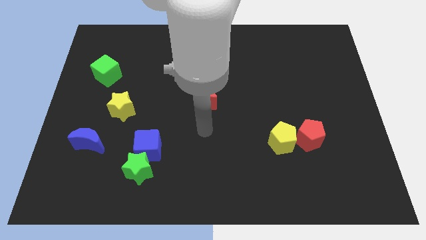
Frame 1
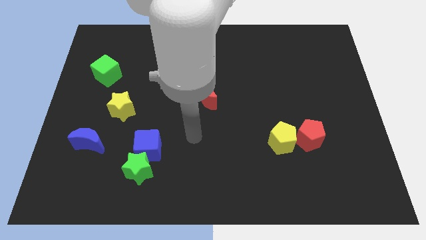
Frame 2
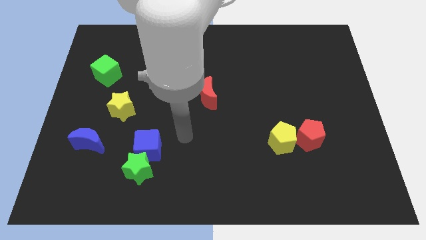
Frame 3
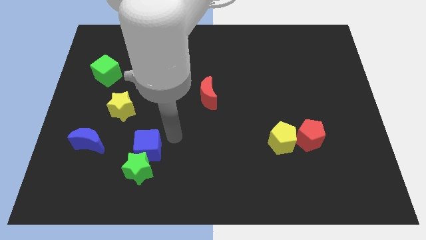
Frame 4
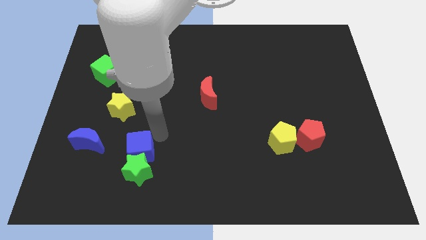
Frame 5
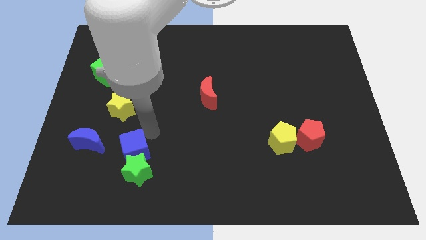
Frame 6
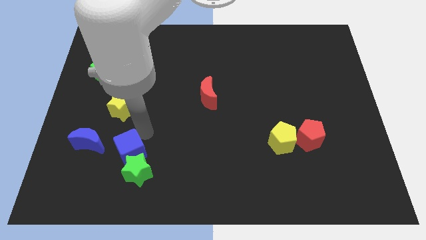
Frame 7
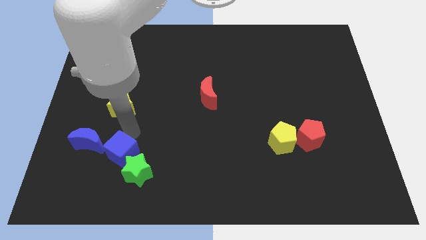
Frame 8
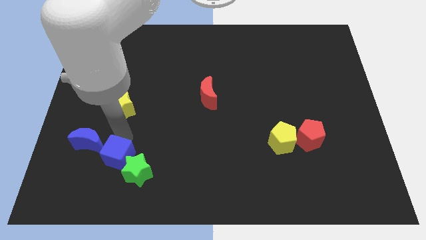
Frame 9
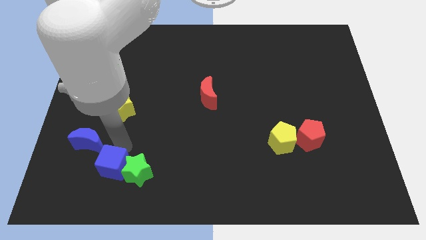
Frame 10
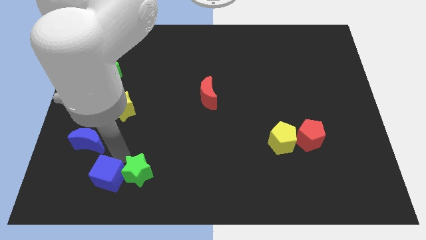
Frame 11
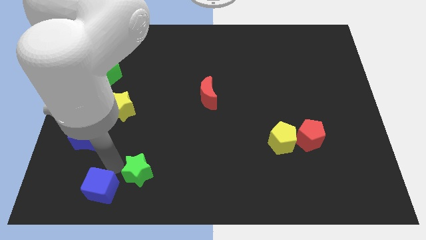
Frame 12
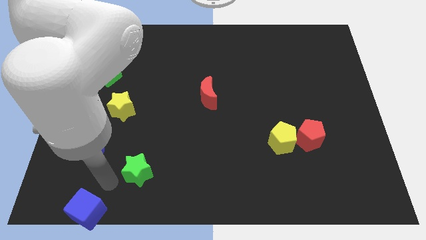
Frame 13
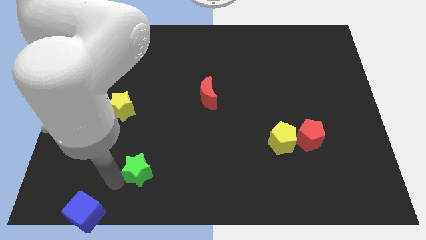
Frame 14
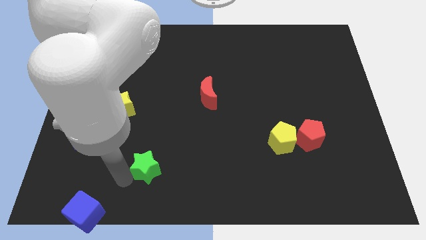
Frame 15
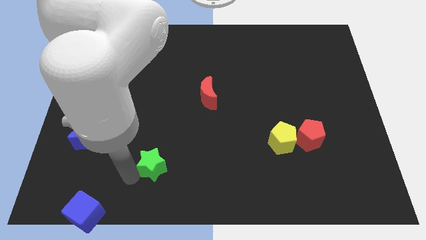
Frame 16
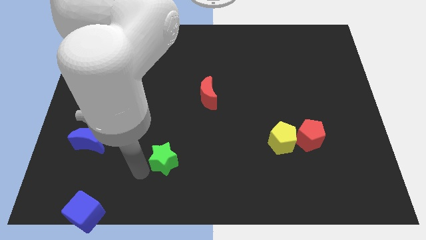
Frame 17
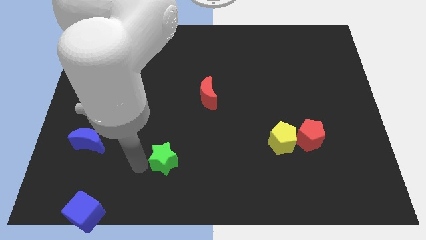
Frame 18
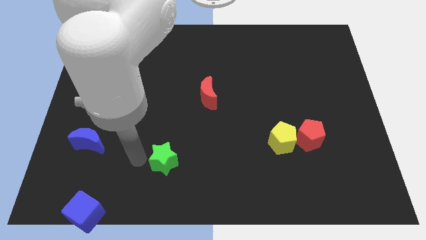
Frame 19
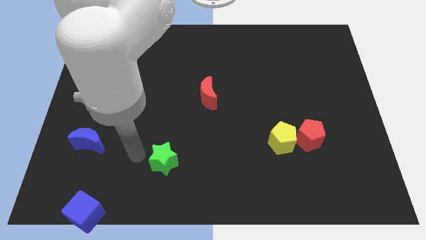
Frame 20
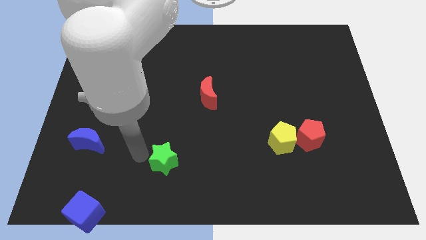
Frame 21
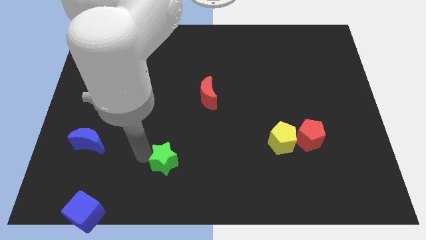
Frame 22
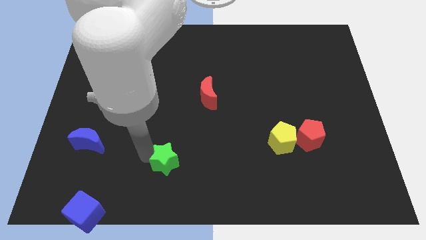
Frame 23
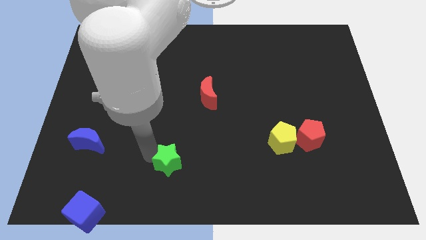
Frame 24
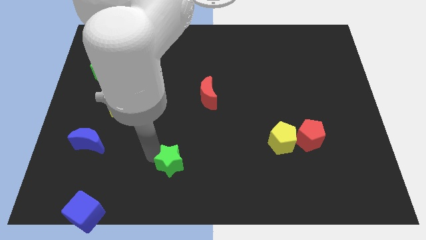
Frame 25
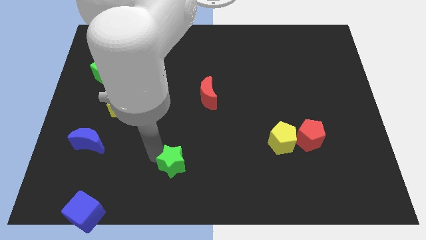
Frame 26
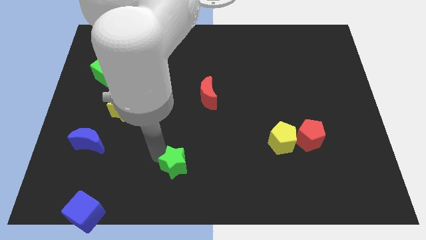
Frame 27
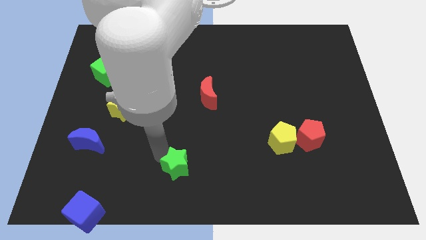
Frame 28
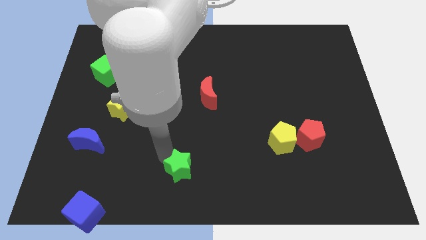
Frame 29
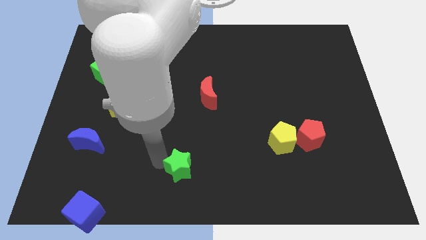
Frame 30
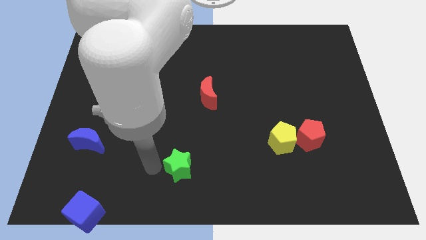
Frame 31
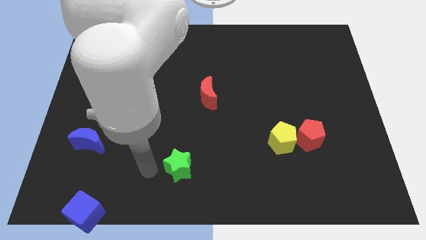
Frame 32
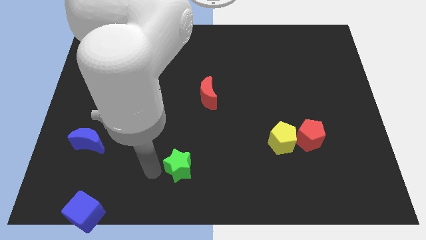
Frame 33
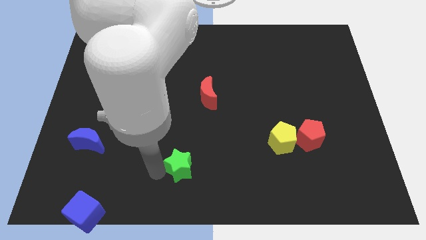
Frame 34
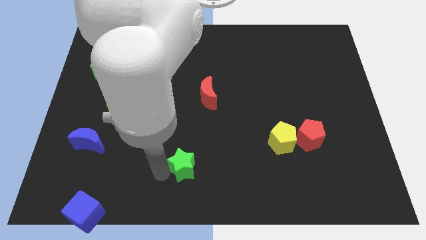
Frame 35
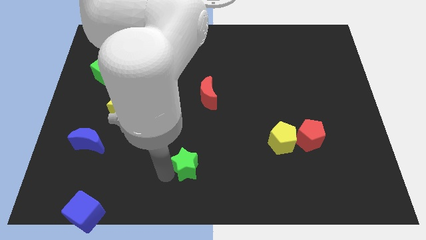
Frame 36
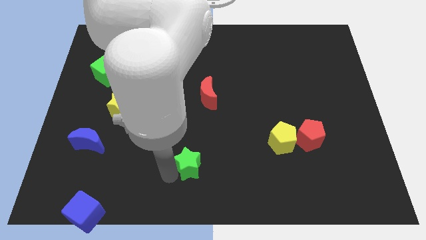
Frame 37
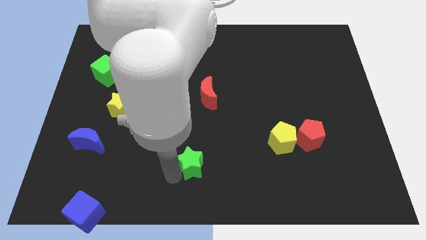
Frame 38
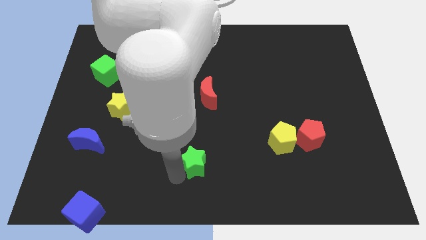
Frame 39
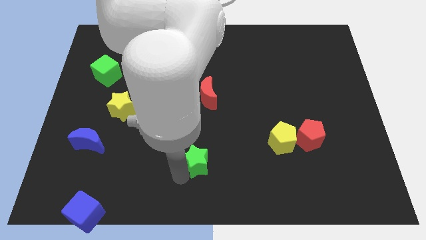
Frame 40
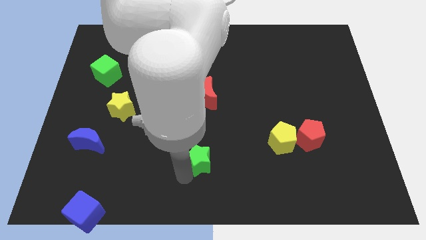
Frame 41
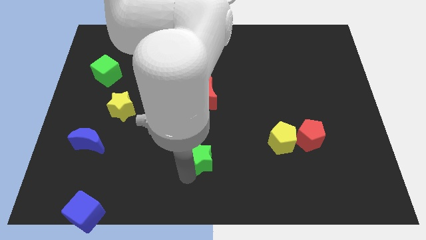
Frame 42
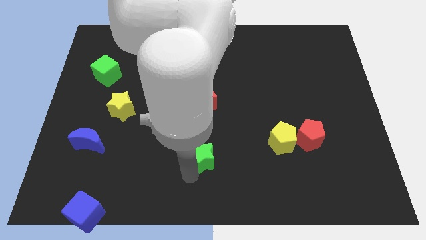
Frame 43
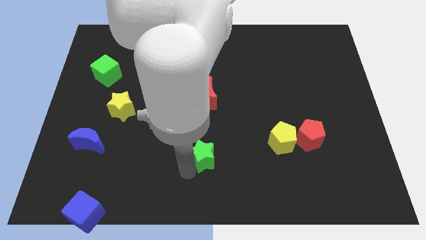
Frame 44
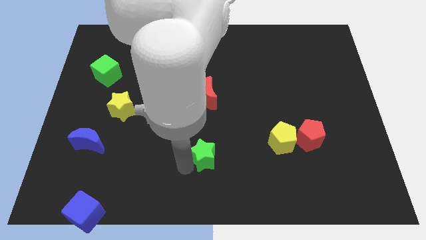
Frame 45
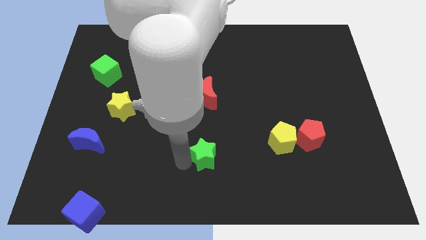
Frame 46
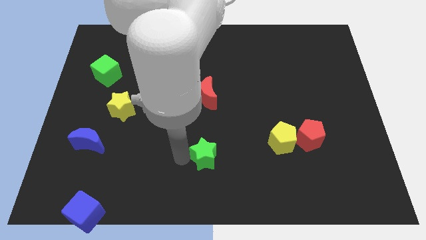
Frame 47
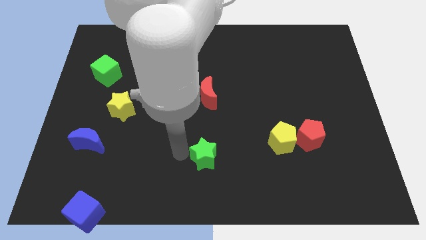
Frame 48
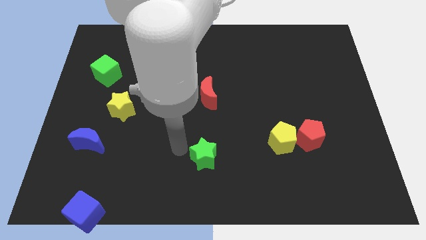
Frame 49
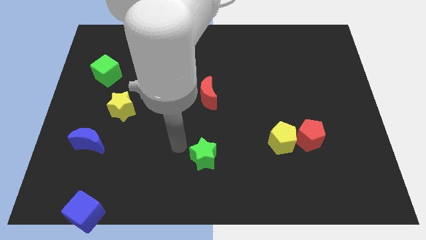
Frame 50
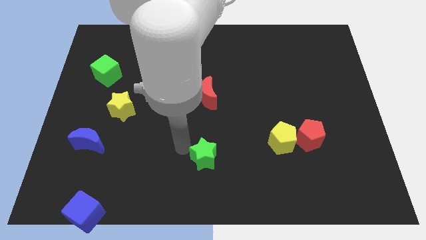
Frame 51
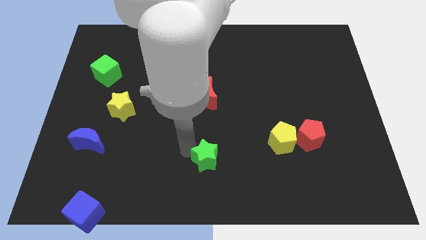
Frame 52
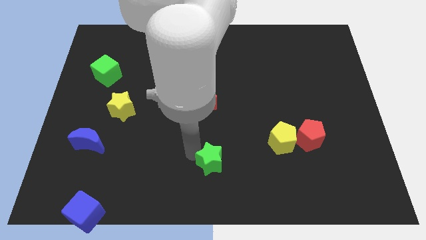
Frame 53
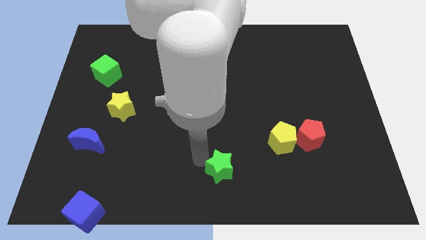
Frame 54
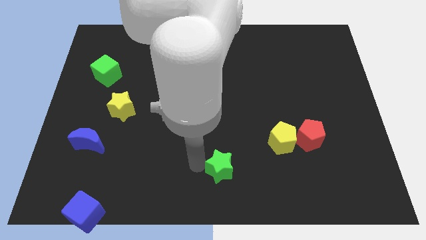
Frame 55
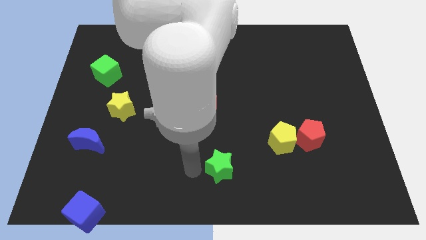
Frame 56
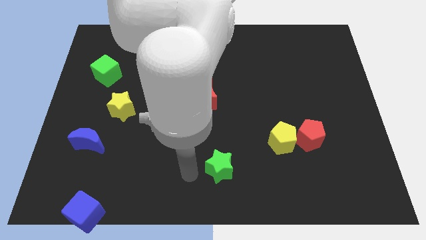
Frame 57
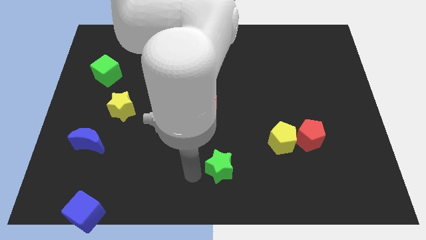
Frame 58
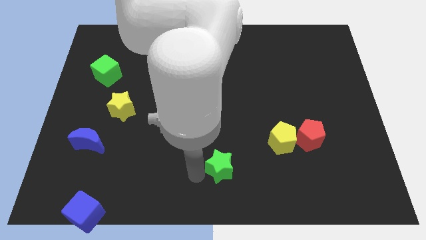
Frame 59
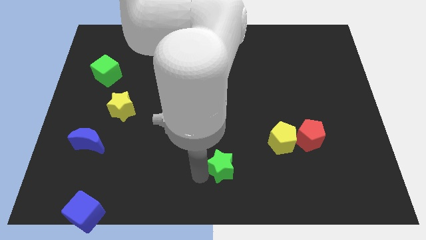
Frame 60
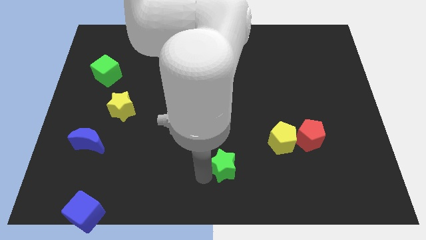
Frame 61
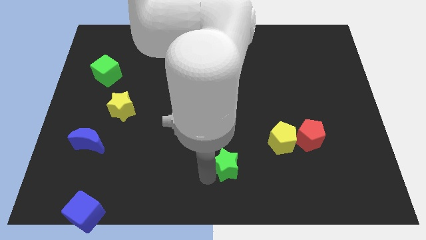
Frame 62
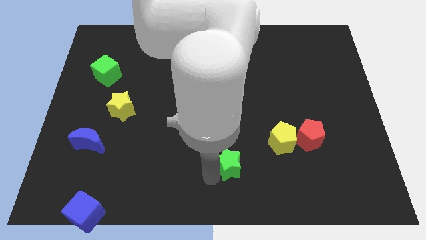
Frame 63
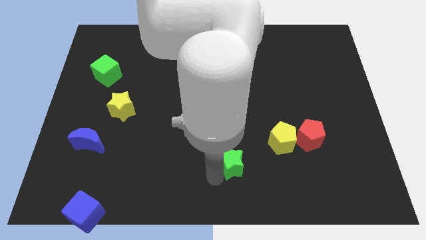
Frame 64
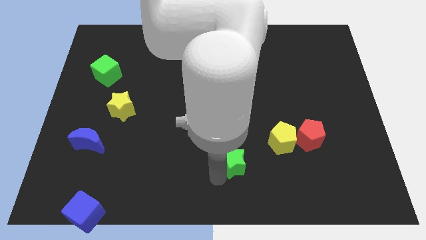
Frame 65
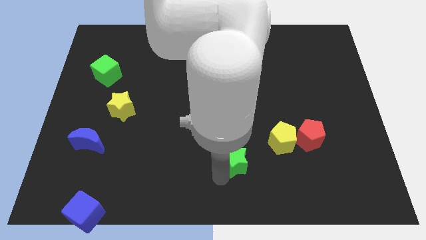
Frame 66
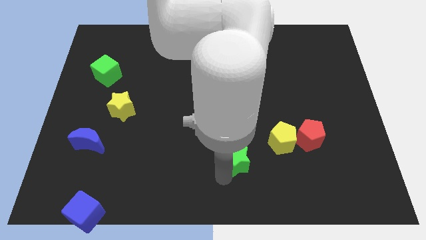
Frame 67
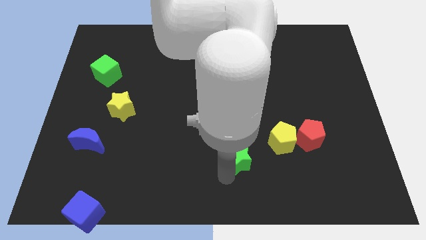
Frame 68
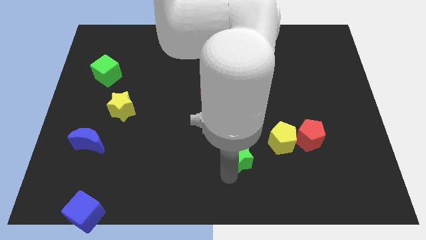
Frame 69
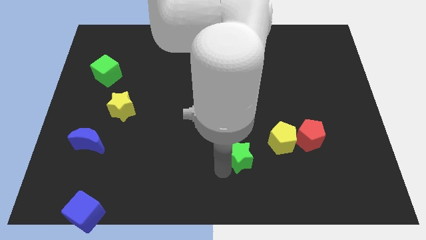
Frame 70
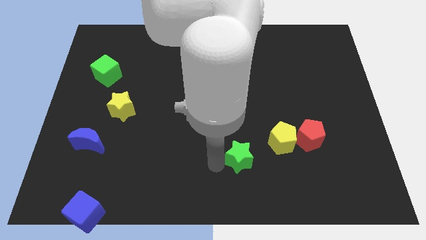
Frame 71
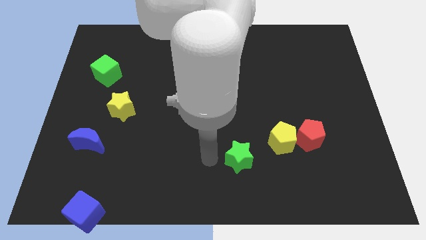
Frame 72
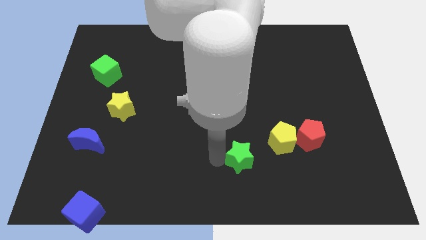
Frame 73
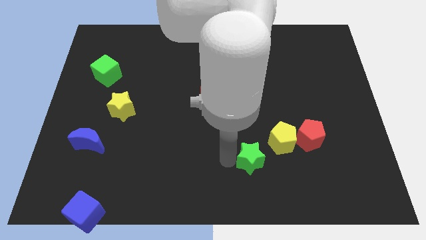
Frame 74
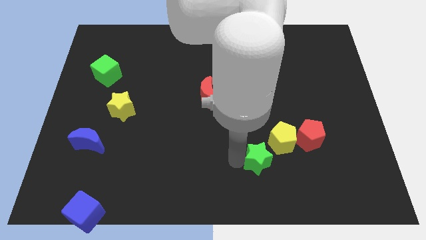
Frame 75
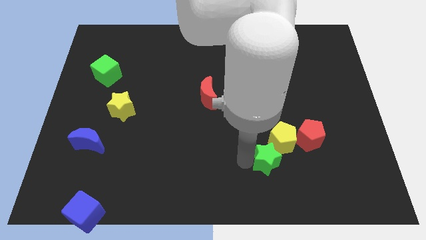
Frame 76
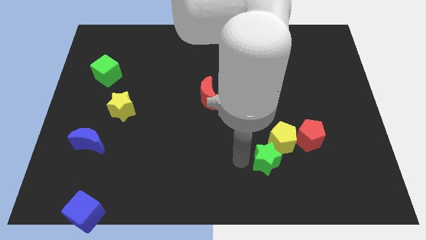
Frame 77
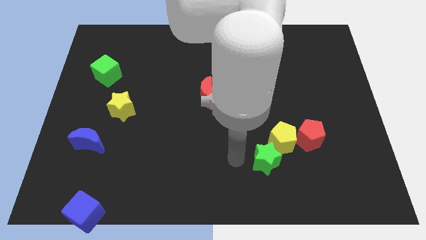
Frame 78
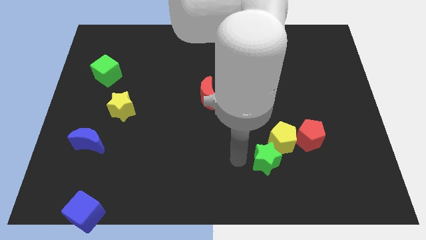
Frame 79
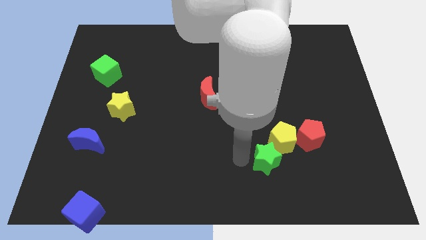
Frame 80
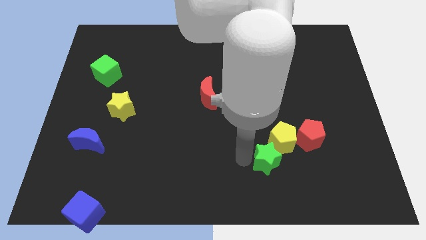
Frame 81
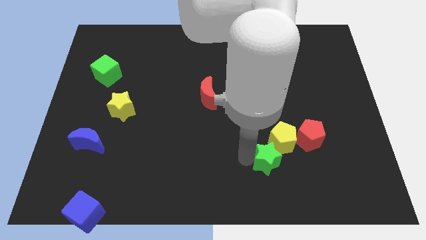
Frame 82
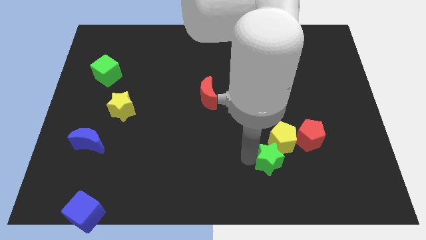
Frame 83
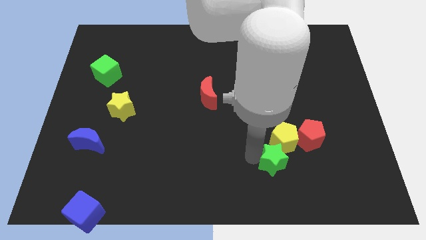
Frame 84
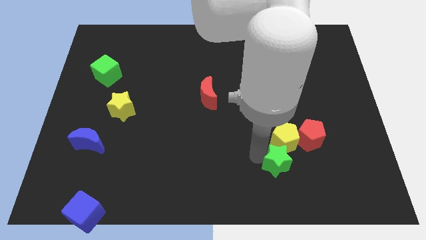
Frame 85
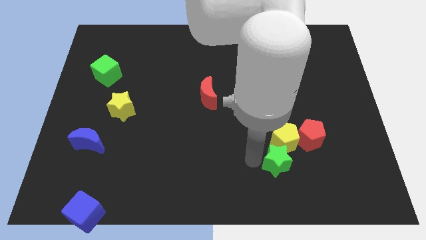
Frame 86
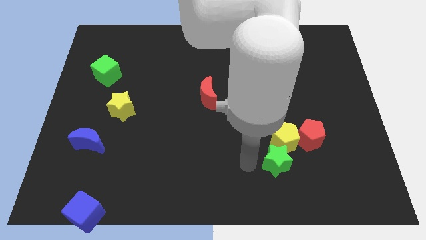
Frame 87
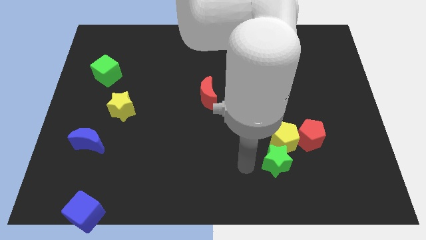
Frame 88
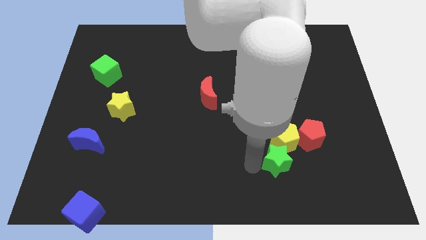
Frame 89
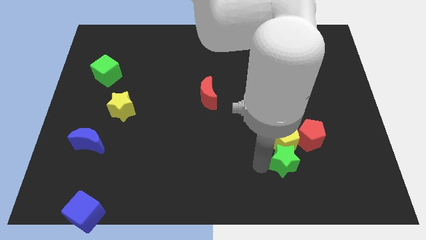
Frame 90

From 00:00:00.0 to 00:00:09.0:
slide the green star to the bottom right side of the yellow pentagon
